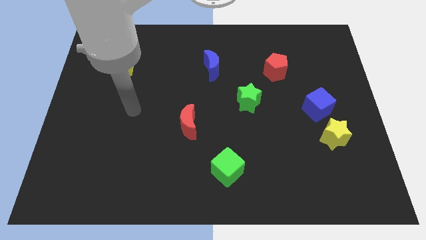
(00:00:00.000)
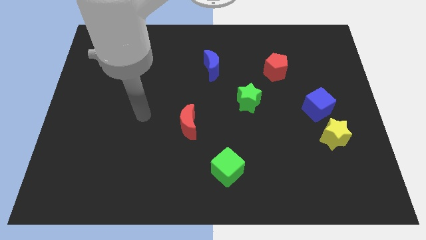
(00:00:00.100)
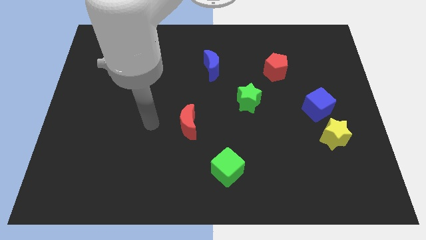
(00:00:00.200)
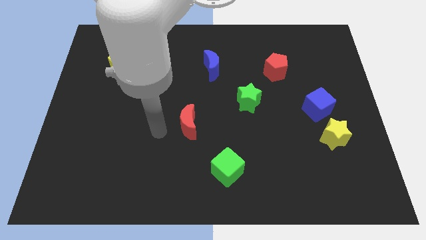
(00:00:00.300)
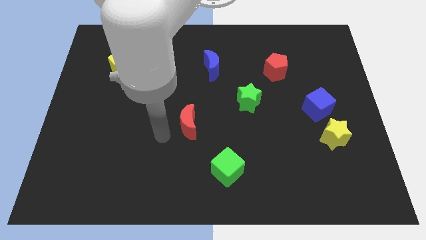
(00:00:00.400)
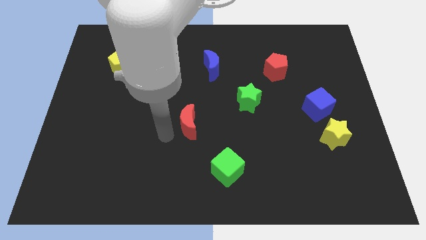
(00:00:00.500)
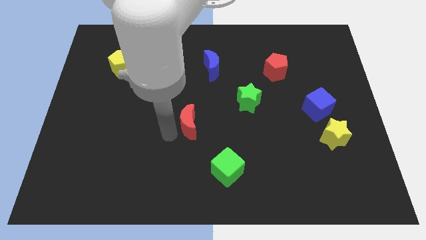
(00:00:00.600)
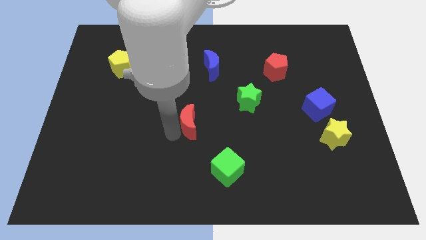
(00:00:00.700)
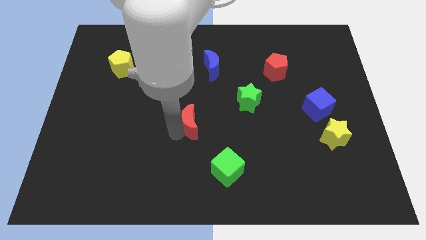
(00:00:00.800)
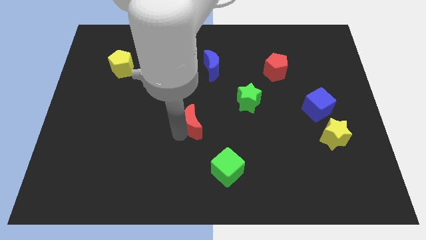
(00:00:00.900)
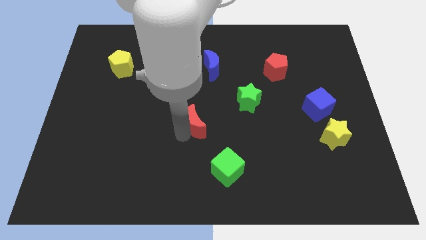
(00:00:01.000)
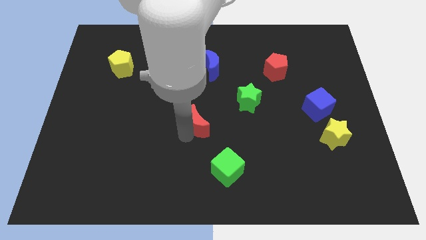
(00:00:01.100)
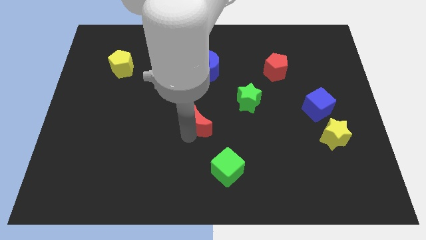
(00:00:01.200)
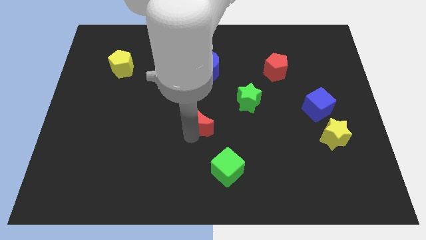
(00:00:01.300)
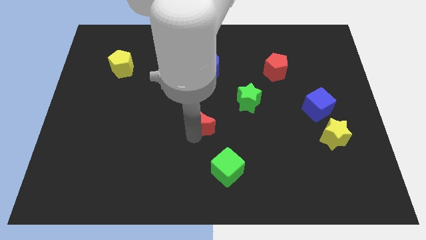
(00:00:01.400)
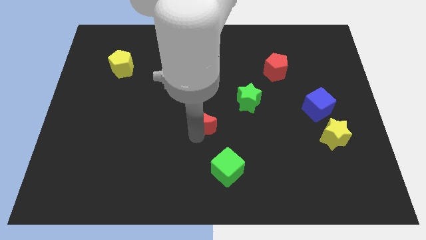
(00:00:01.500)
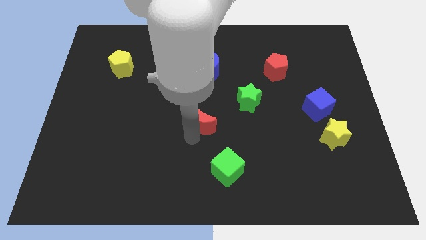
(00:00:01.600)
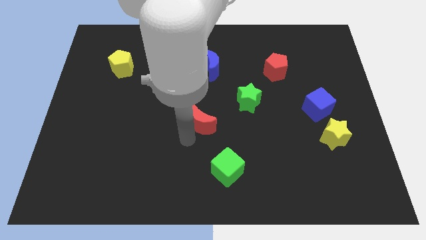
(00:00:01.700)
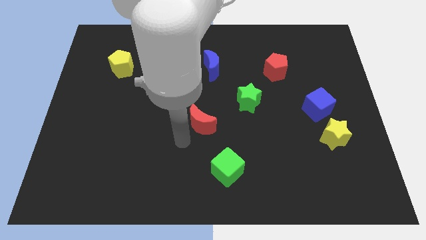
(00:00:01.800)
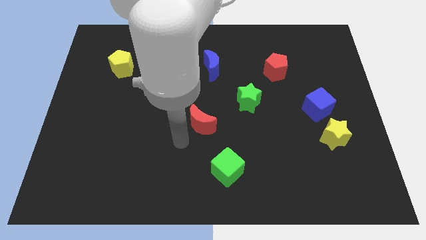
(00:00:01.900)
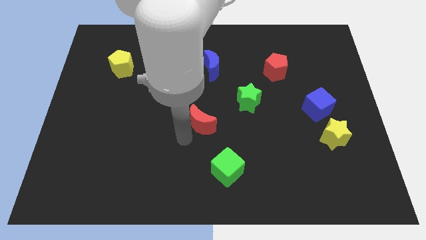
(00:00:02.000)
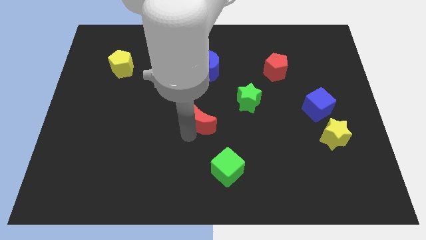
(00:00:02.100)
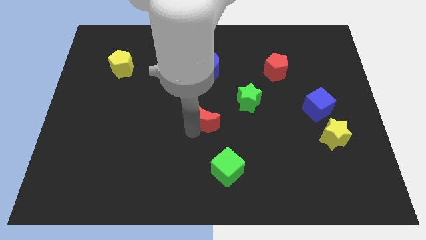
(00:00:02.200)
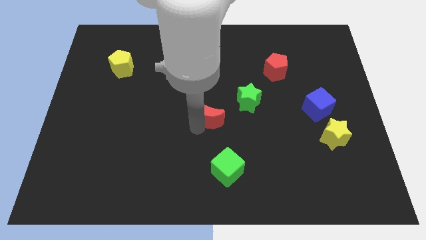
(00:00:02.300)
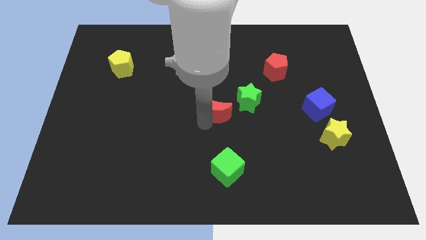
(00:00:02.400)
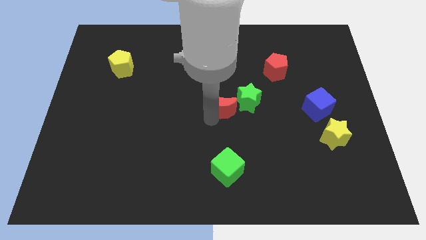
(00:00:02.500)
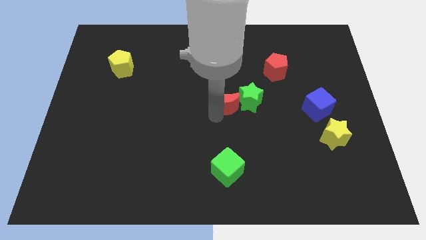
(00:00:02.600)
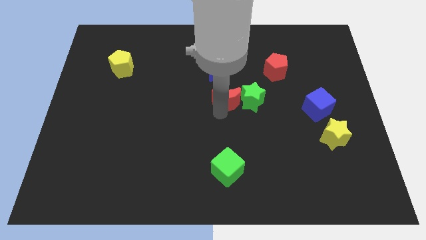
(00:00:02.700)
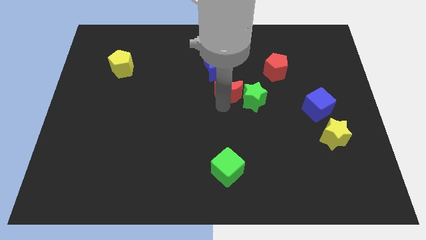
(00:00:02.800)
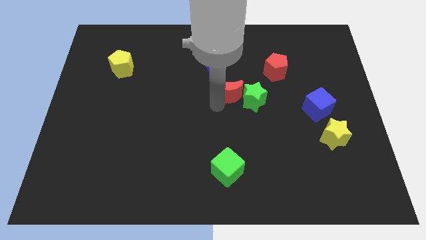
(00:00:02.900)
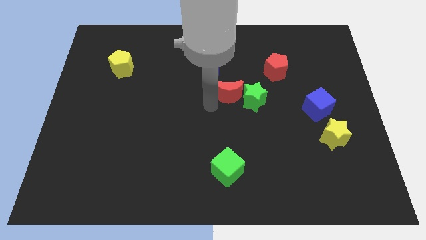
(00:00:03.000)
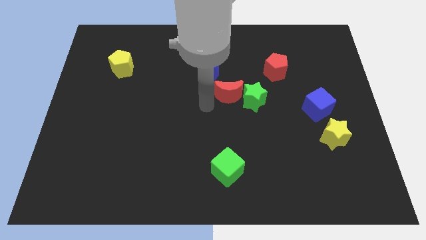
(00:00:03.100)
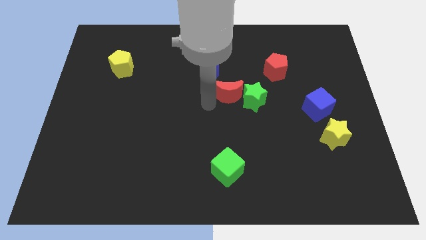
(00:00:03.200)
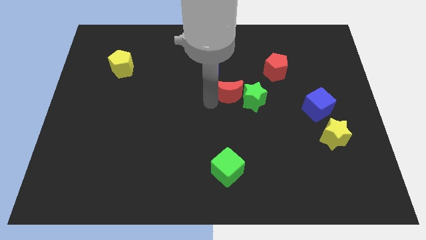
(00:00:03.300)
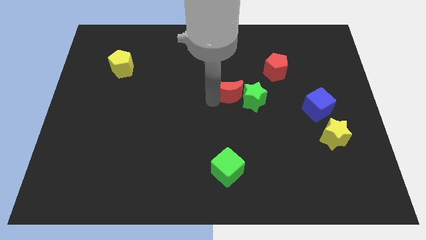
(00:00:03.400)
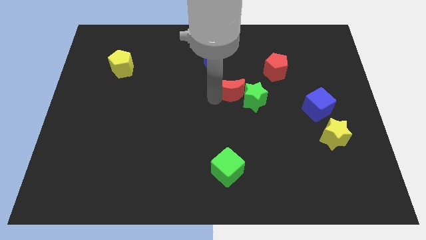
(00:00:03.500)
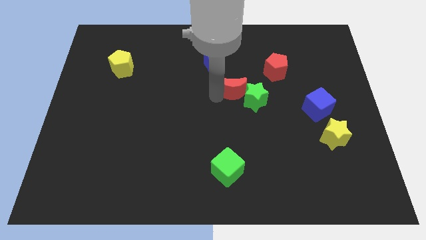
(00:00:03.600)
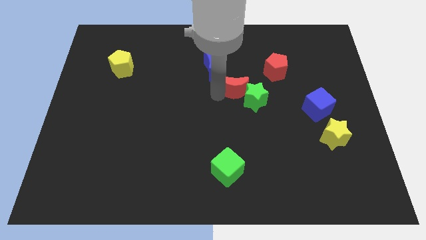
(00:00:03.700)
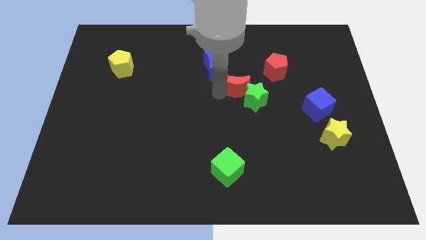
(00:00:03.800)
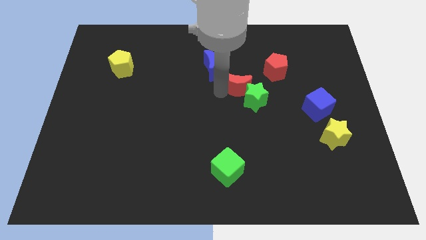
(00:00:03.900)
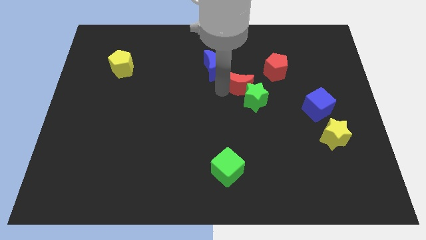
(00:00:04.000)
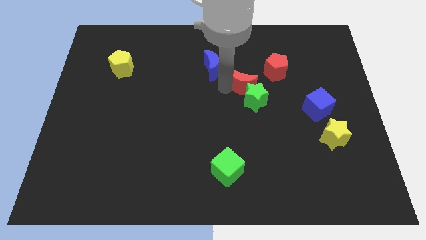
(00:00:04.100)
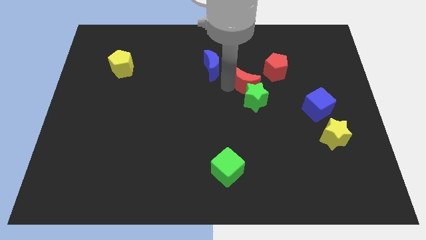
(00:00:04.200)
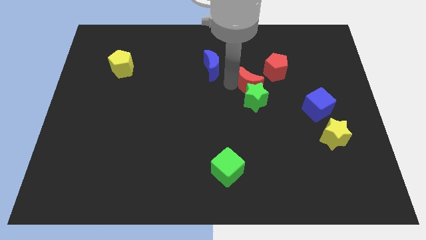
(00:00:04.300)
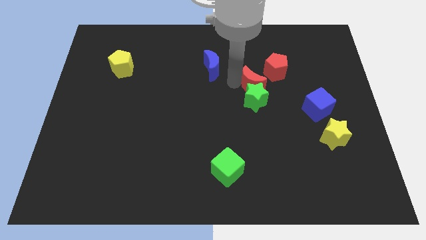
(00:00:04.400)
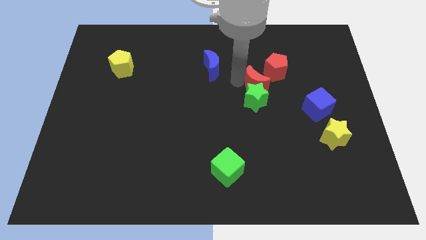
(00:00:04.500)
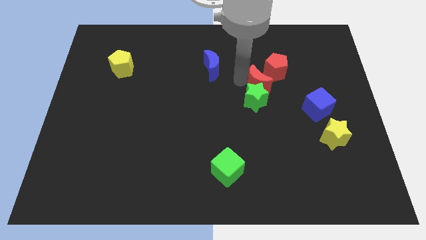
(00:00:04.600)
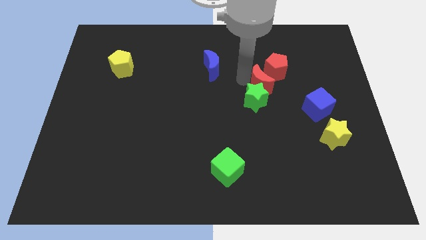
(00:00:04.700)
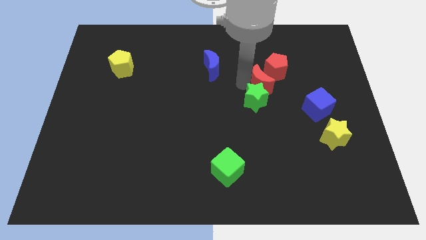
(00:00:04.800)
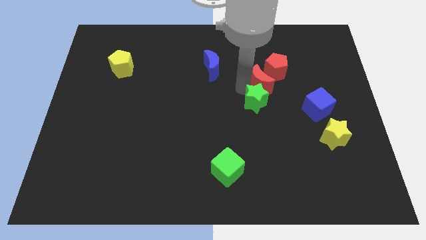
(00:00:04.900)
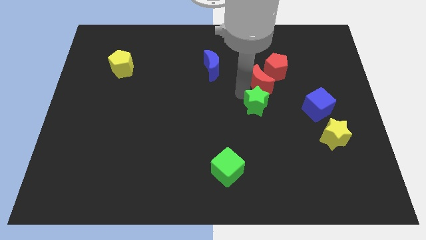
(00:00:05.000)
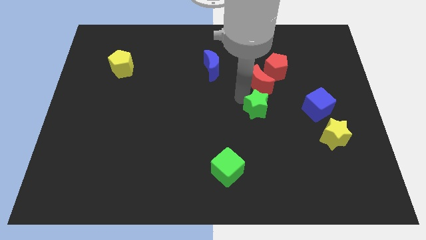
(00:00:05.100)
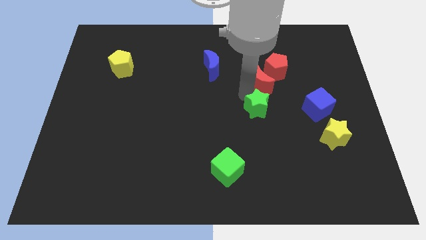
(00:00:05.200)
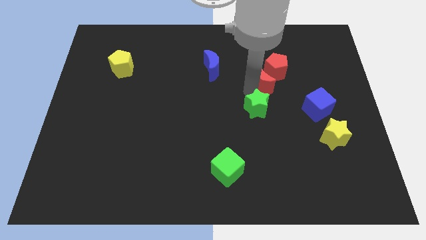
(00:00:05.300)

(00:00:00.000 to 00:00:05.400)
slide the red moon next to the red pentagon
